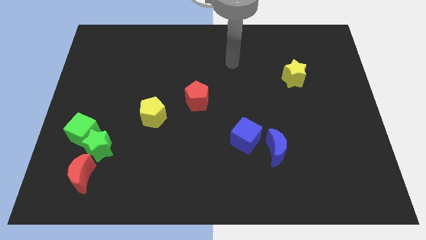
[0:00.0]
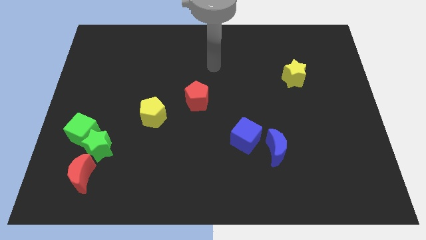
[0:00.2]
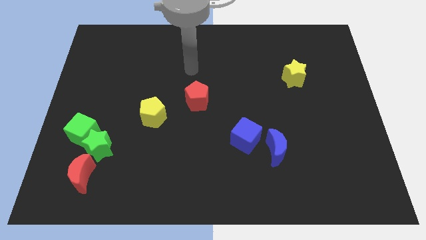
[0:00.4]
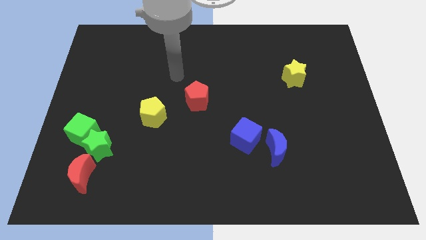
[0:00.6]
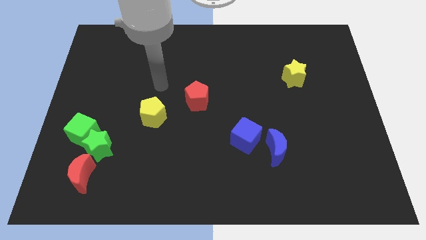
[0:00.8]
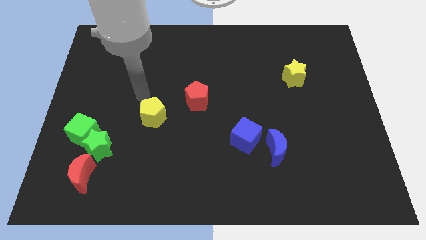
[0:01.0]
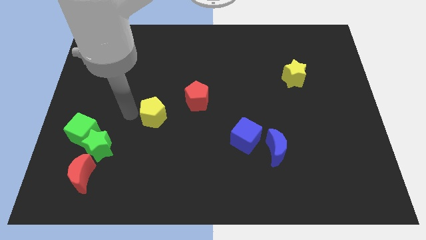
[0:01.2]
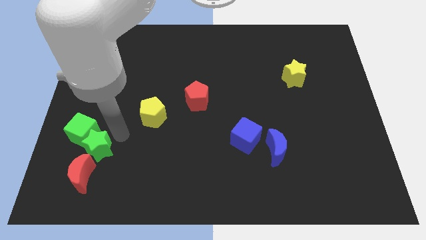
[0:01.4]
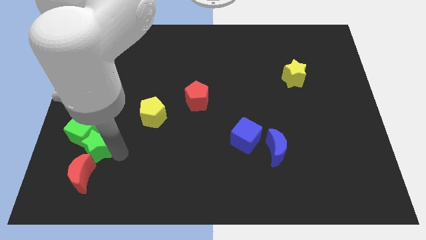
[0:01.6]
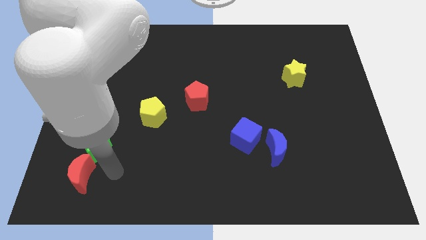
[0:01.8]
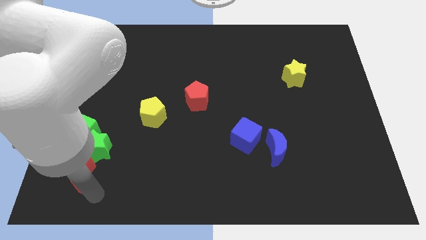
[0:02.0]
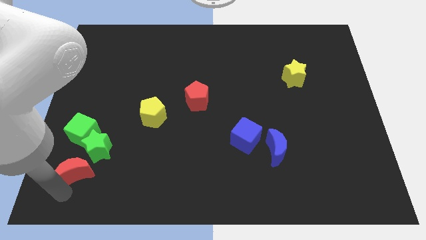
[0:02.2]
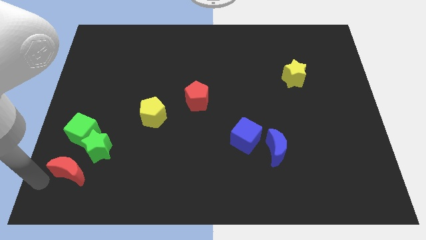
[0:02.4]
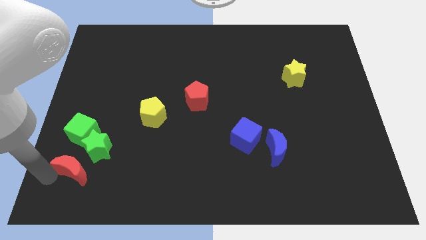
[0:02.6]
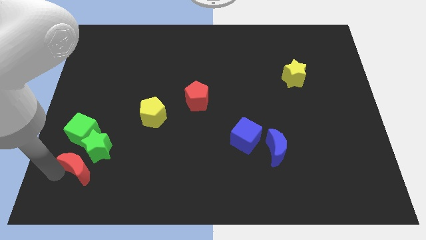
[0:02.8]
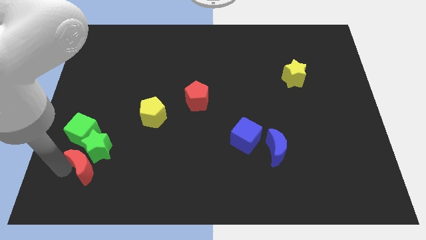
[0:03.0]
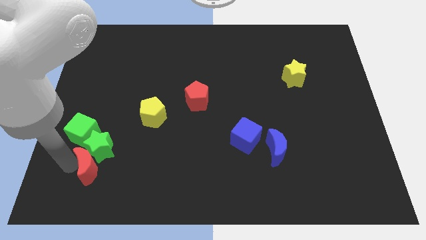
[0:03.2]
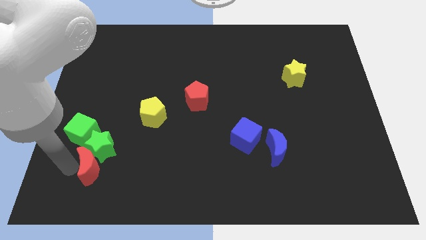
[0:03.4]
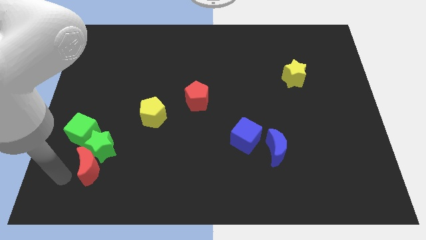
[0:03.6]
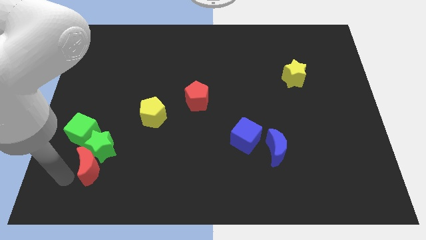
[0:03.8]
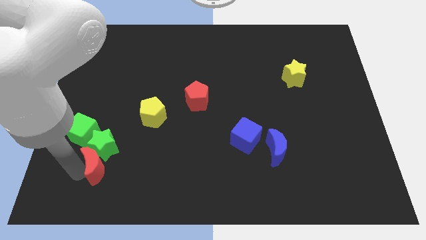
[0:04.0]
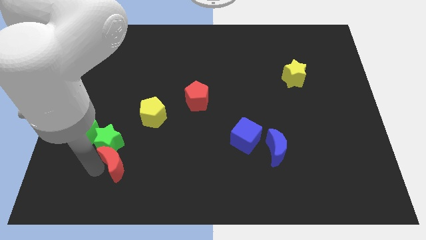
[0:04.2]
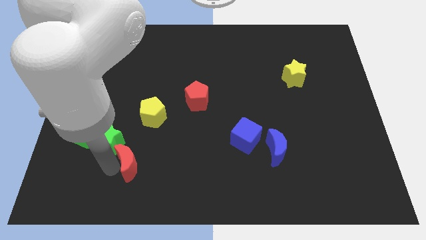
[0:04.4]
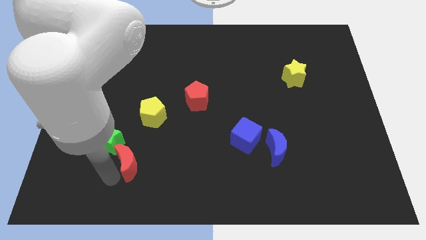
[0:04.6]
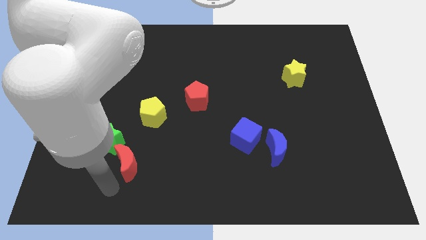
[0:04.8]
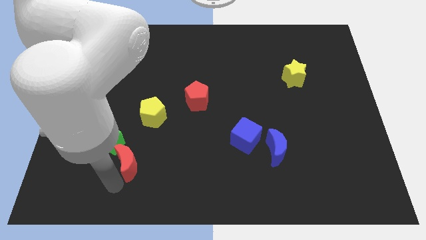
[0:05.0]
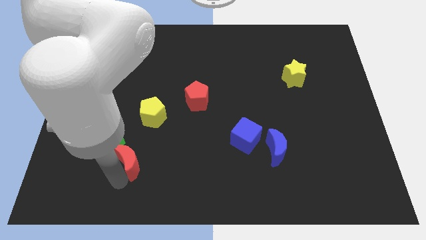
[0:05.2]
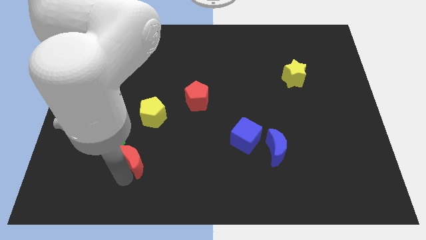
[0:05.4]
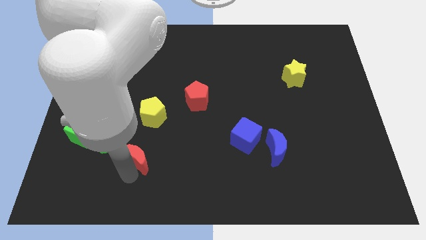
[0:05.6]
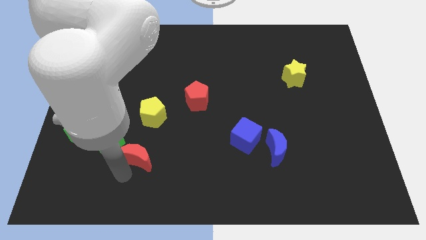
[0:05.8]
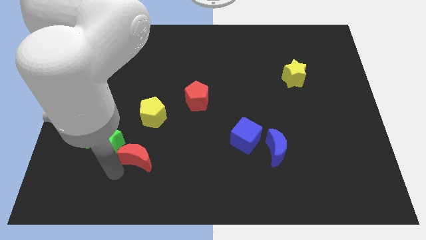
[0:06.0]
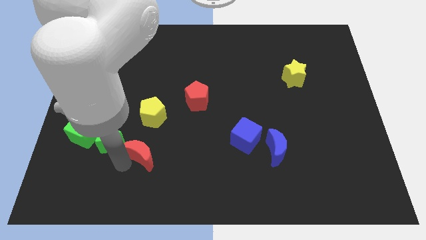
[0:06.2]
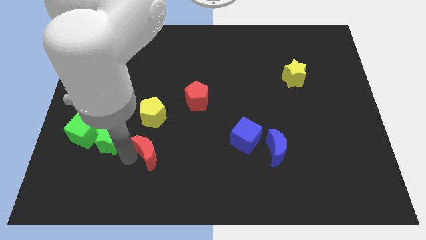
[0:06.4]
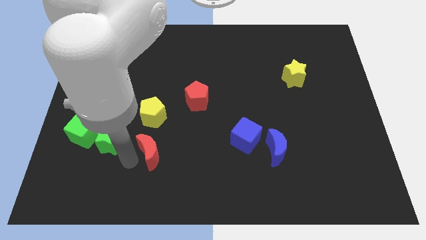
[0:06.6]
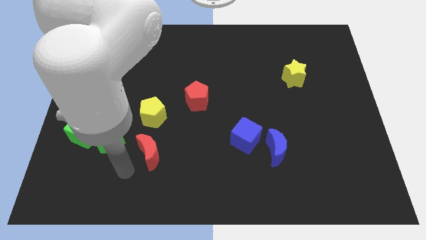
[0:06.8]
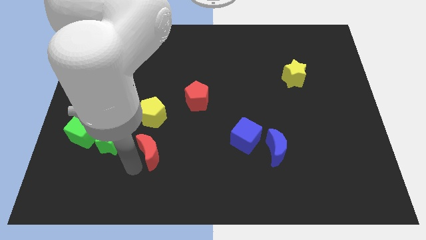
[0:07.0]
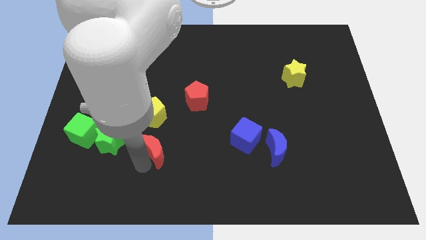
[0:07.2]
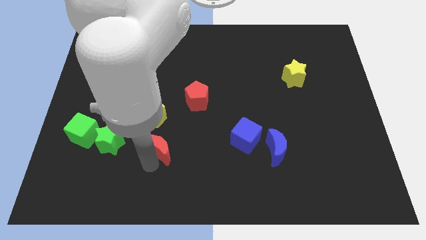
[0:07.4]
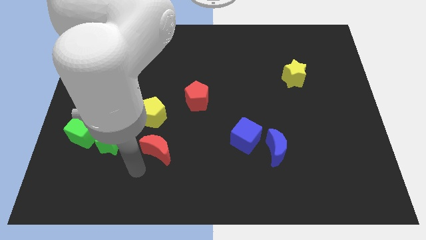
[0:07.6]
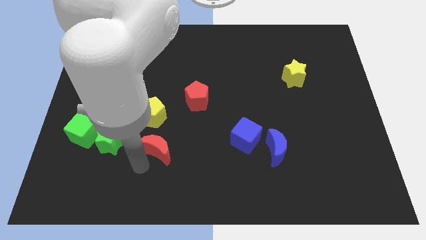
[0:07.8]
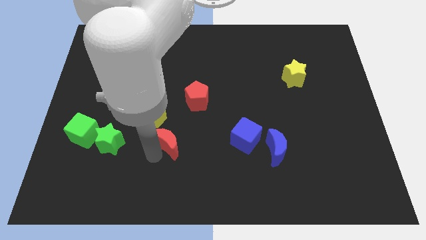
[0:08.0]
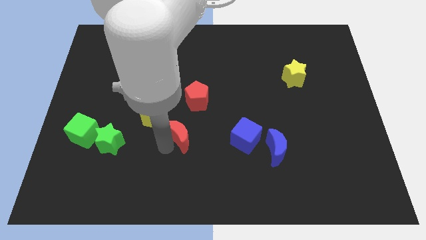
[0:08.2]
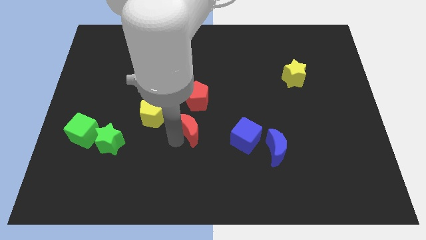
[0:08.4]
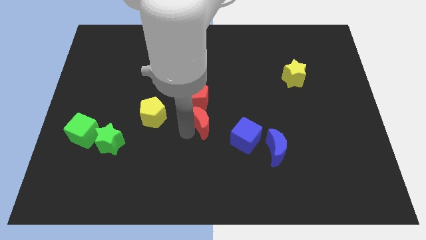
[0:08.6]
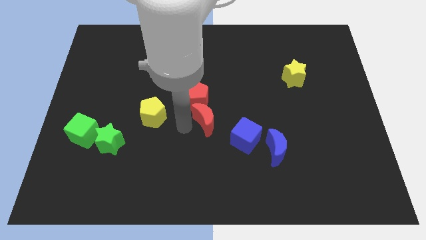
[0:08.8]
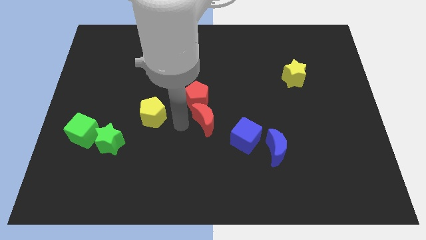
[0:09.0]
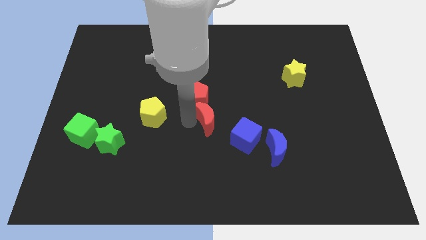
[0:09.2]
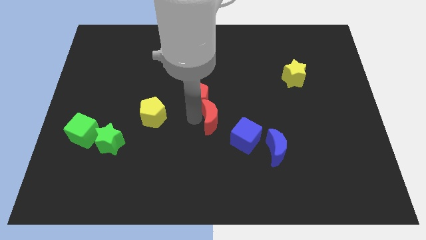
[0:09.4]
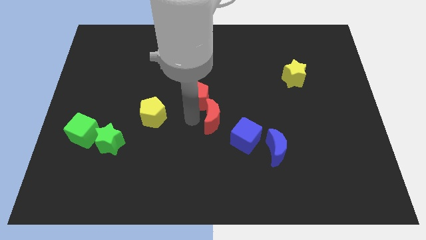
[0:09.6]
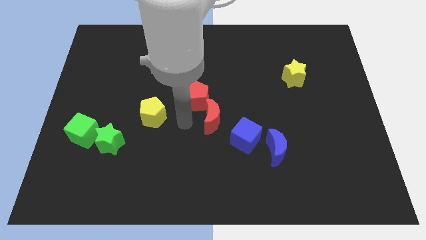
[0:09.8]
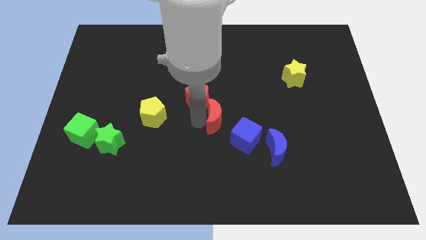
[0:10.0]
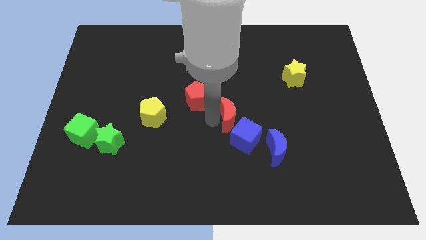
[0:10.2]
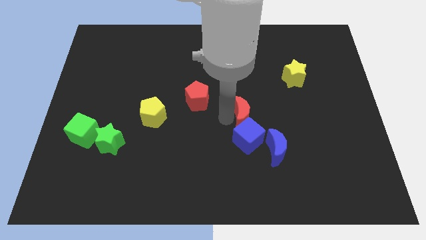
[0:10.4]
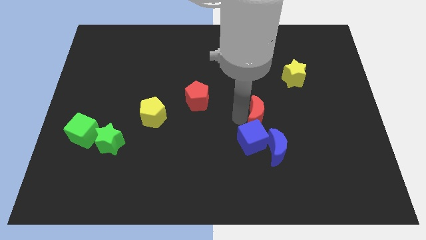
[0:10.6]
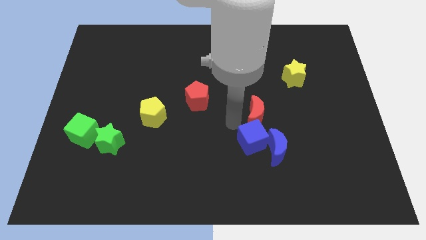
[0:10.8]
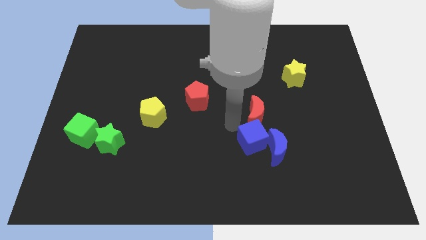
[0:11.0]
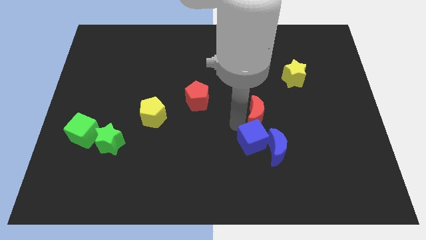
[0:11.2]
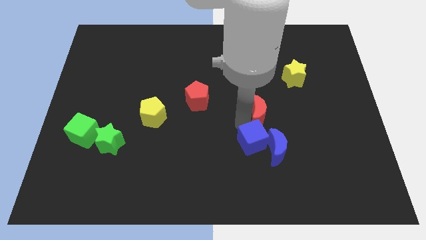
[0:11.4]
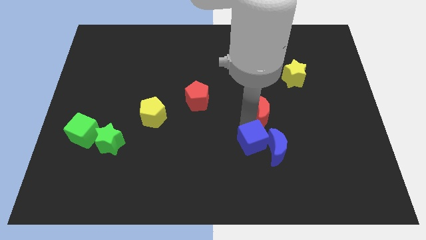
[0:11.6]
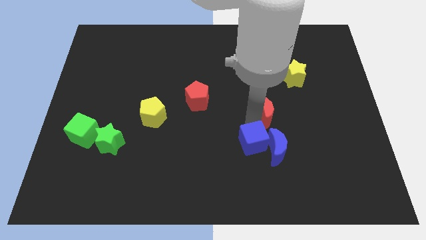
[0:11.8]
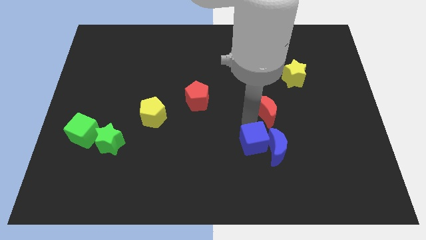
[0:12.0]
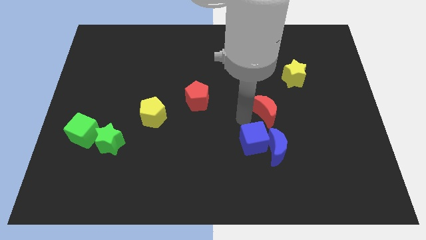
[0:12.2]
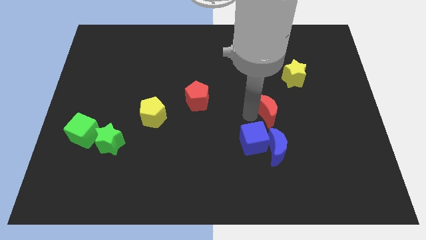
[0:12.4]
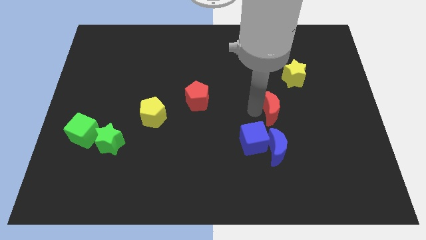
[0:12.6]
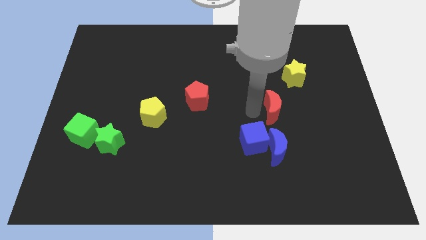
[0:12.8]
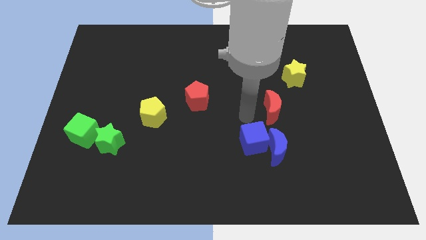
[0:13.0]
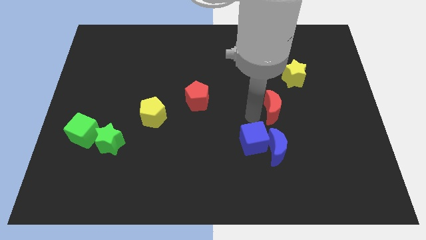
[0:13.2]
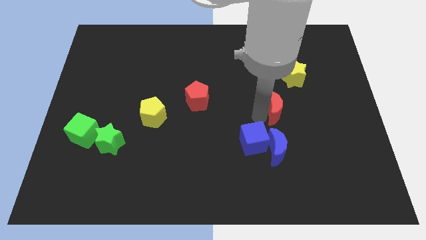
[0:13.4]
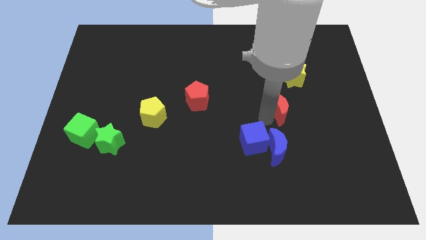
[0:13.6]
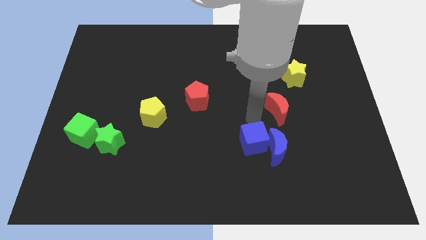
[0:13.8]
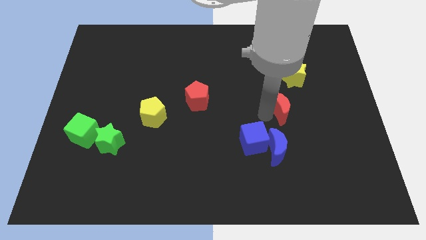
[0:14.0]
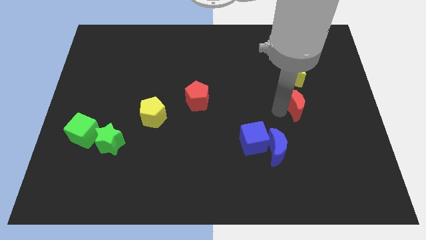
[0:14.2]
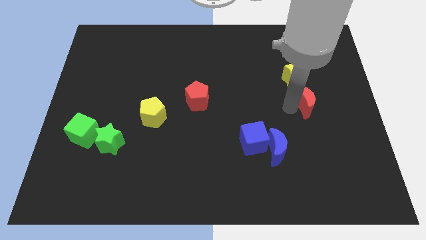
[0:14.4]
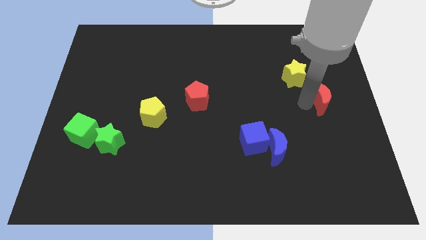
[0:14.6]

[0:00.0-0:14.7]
put the red moon to the right side of the board
